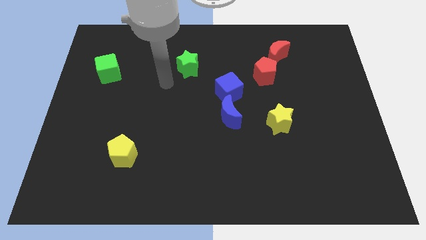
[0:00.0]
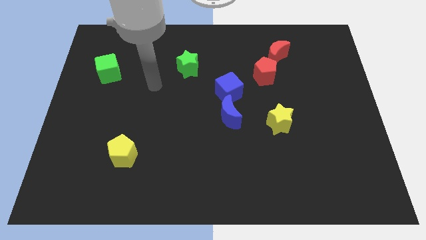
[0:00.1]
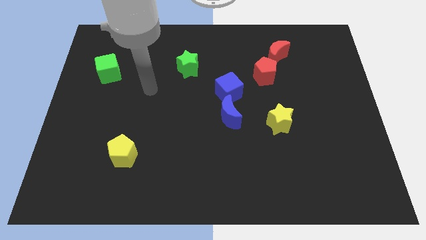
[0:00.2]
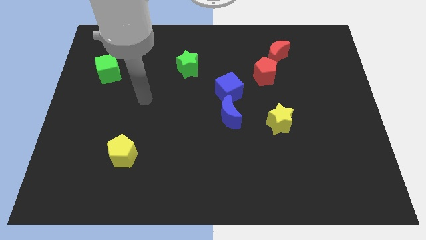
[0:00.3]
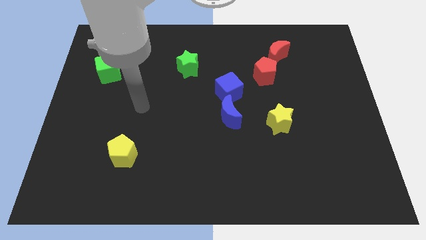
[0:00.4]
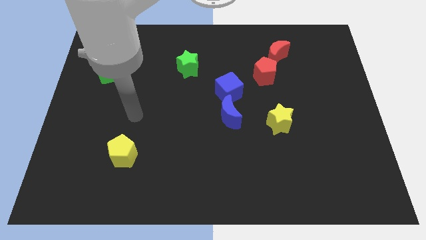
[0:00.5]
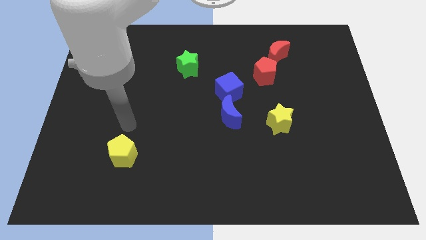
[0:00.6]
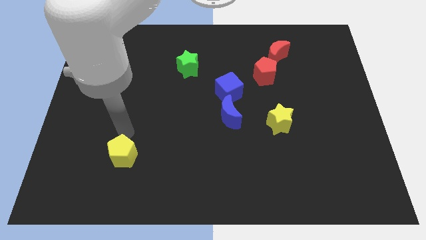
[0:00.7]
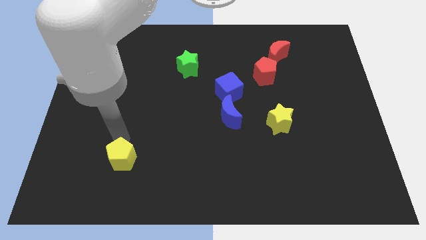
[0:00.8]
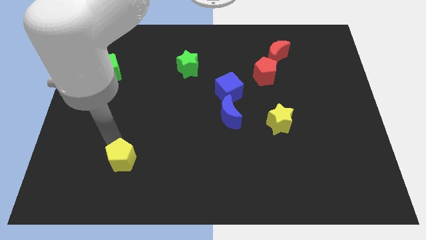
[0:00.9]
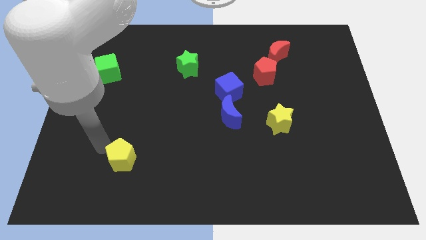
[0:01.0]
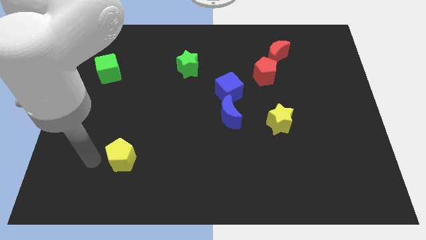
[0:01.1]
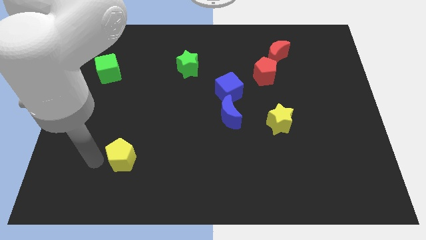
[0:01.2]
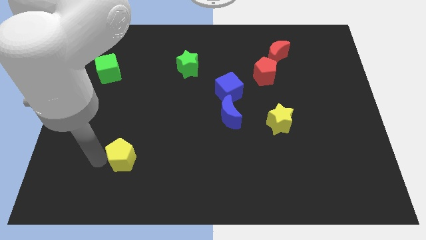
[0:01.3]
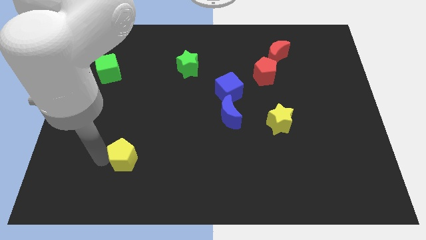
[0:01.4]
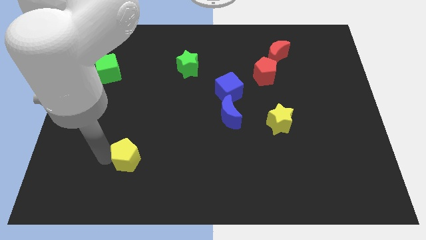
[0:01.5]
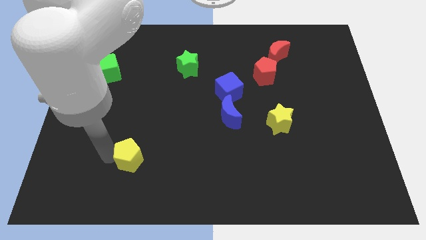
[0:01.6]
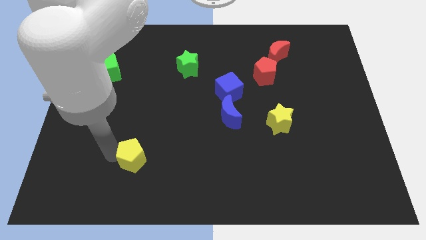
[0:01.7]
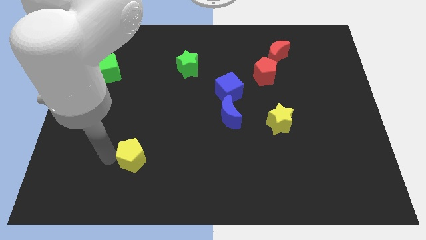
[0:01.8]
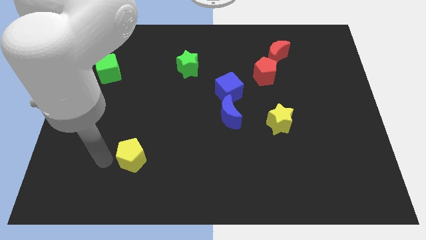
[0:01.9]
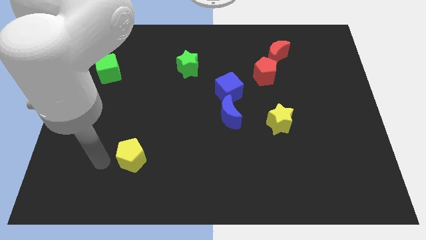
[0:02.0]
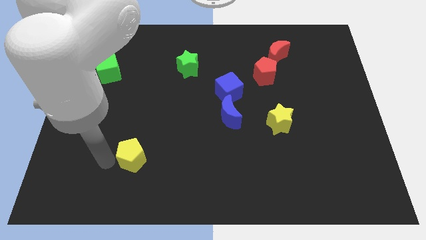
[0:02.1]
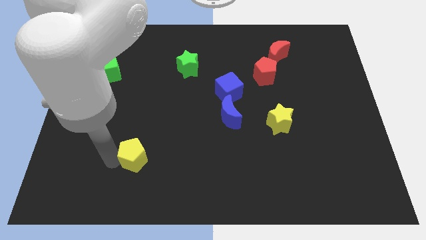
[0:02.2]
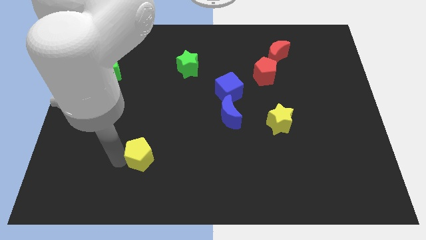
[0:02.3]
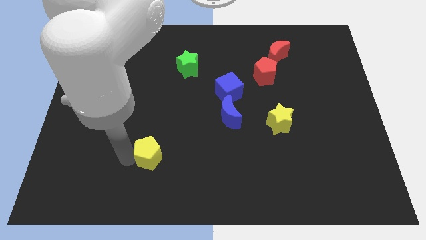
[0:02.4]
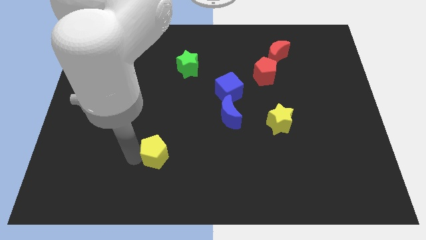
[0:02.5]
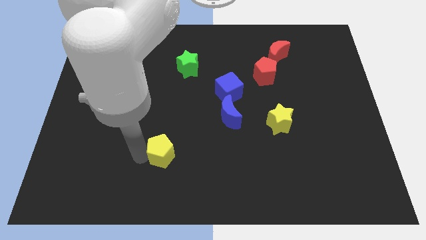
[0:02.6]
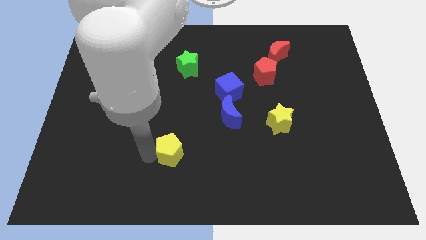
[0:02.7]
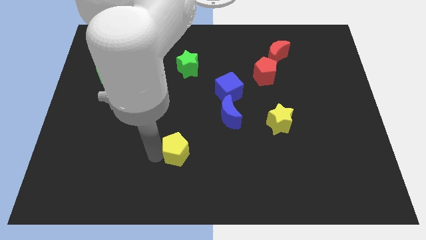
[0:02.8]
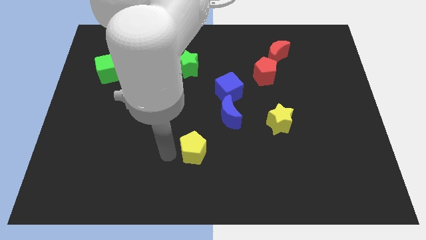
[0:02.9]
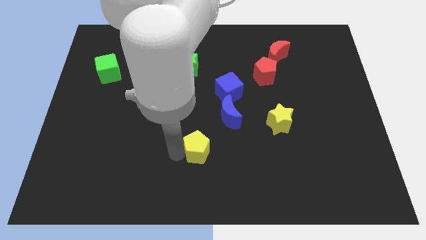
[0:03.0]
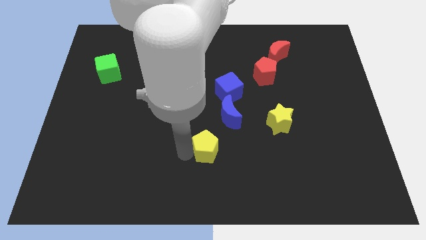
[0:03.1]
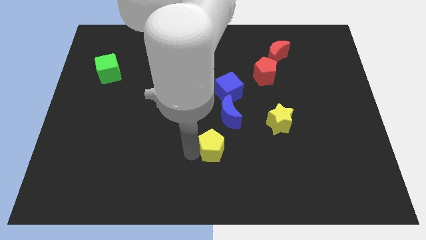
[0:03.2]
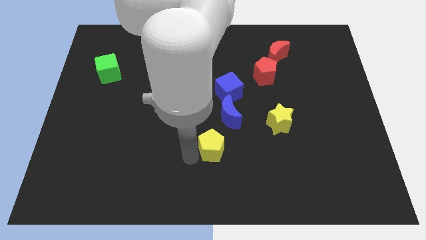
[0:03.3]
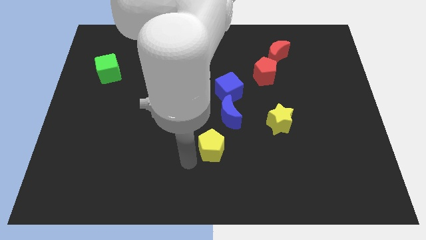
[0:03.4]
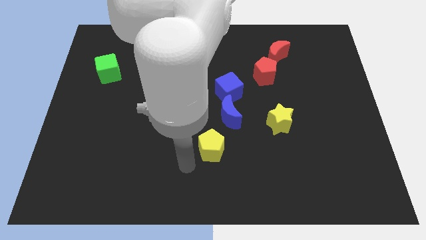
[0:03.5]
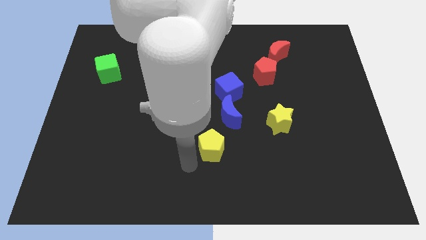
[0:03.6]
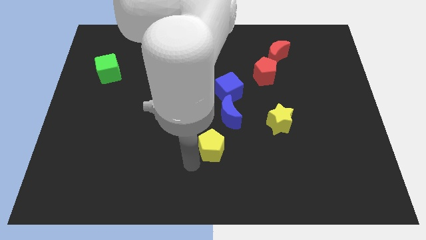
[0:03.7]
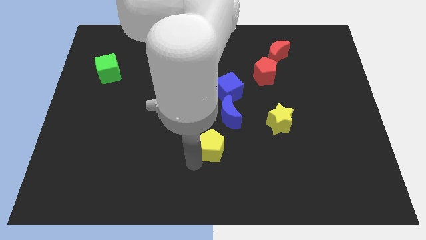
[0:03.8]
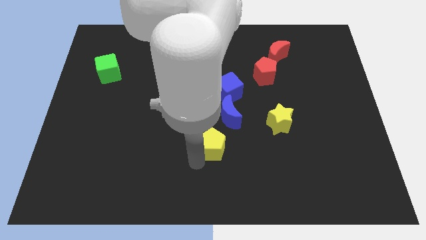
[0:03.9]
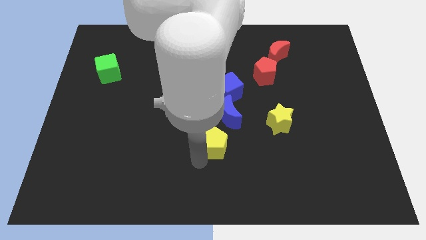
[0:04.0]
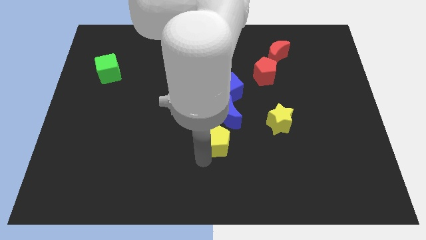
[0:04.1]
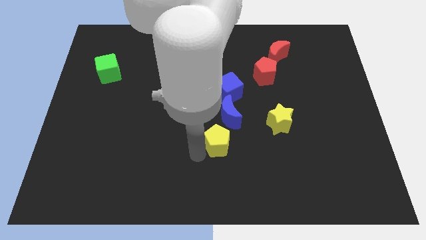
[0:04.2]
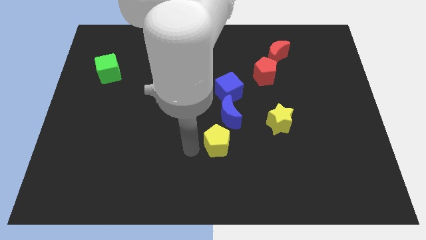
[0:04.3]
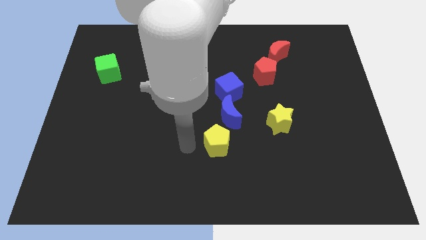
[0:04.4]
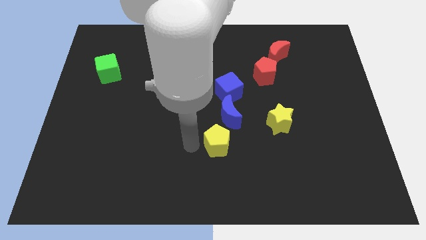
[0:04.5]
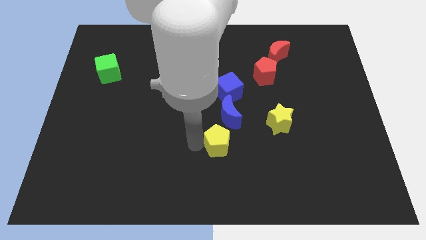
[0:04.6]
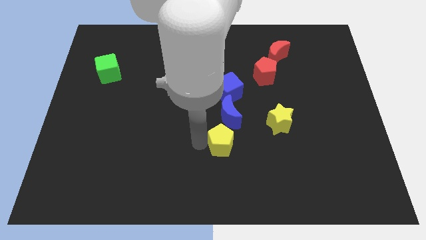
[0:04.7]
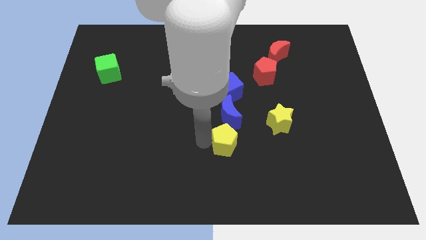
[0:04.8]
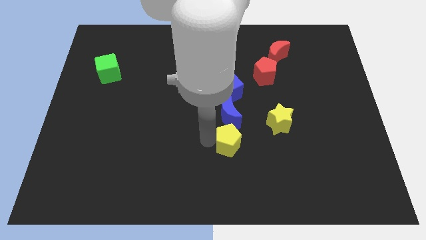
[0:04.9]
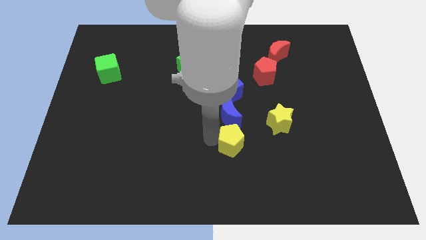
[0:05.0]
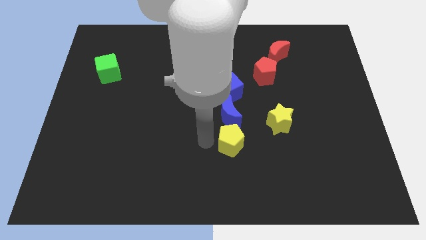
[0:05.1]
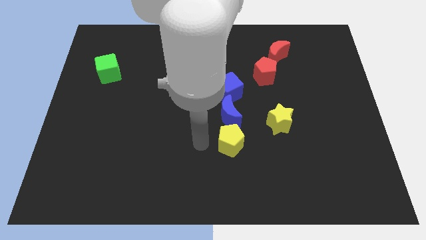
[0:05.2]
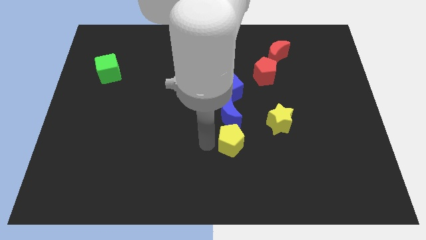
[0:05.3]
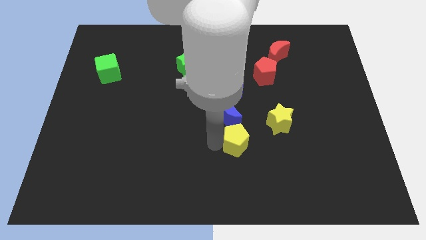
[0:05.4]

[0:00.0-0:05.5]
push the yellow pentagon to the bottom left side of the yellow star
